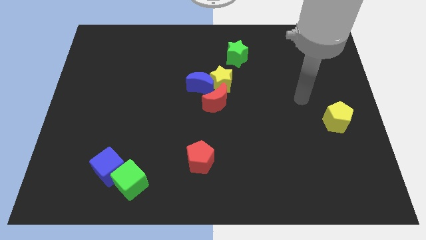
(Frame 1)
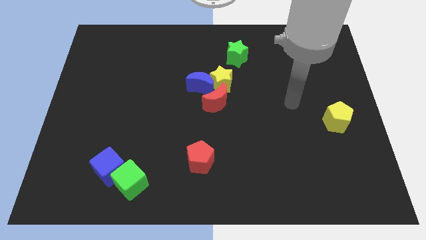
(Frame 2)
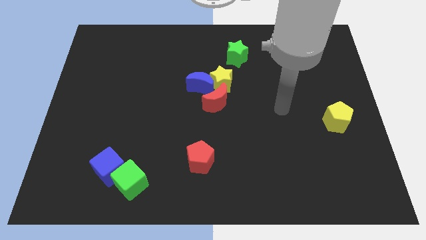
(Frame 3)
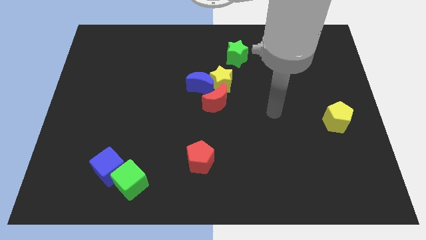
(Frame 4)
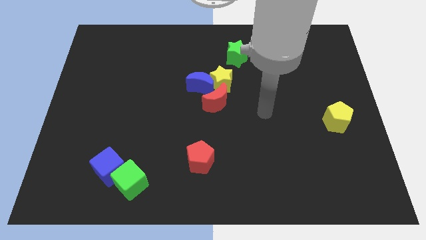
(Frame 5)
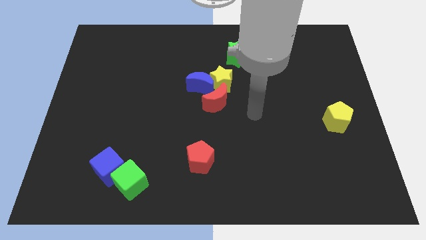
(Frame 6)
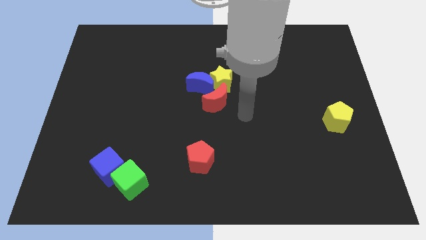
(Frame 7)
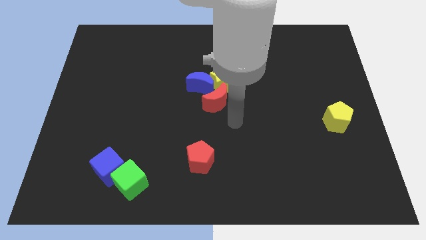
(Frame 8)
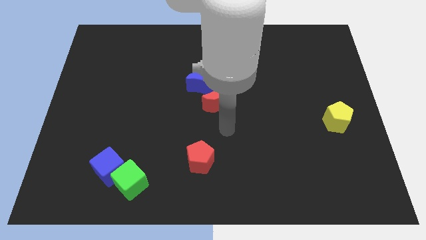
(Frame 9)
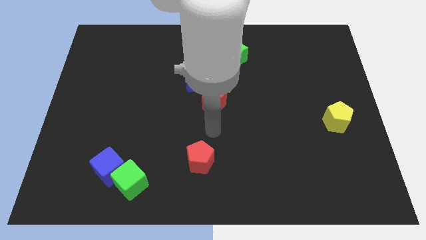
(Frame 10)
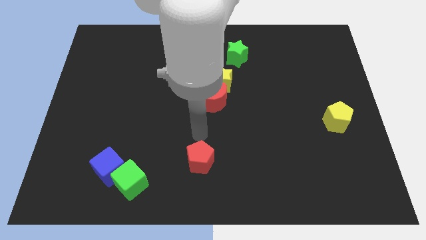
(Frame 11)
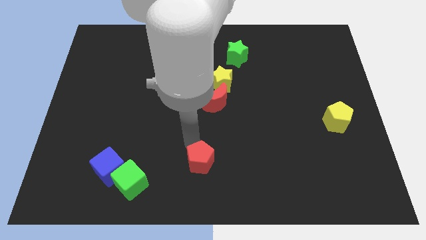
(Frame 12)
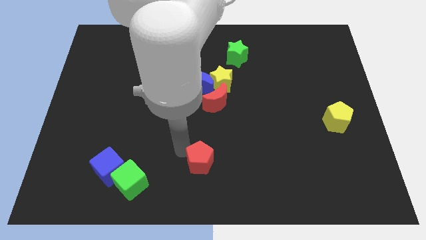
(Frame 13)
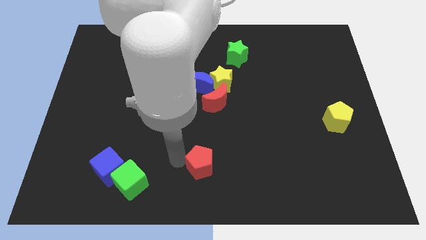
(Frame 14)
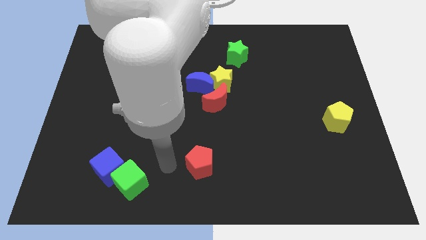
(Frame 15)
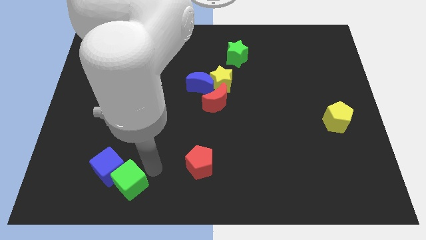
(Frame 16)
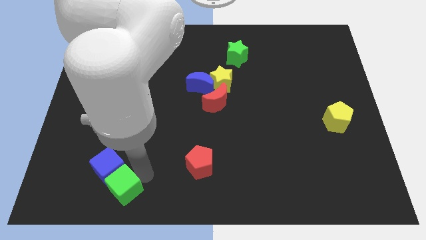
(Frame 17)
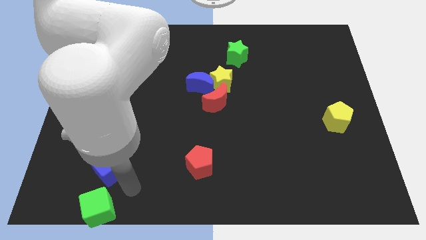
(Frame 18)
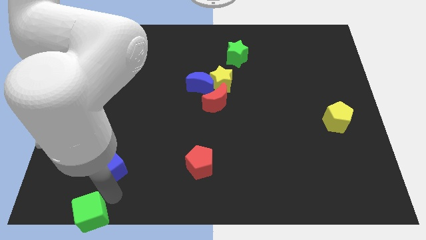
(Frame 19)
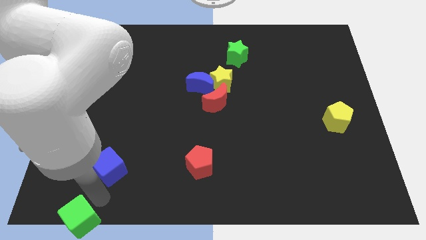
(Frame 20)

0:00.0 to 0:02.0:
pull the blue cube apart from the green cube

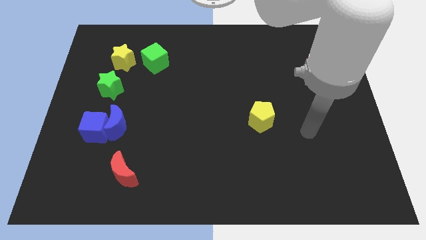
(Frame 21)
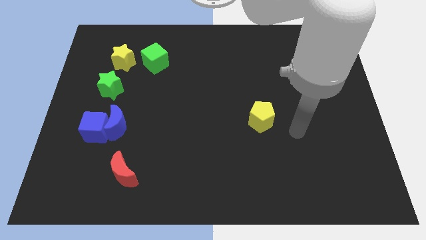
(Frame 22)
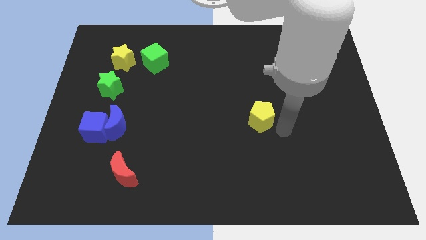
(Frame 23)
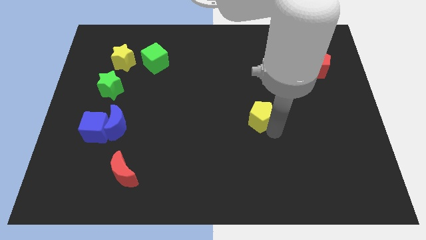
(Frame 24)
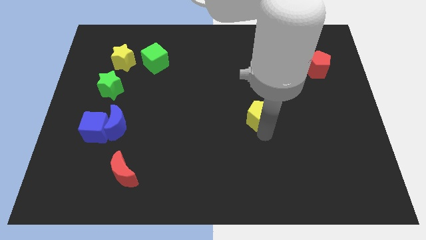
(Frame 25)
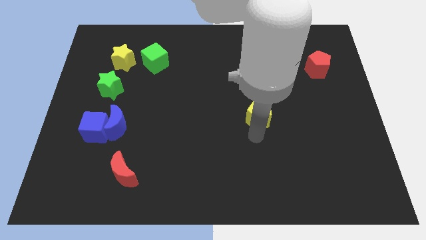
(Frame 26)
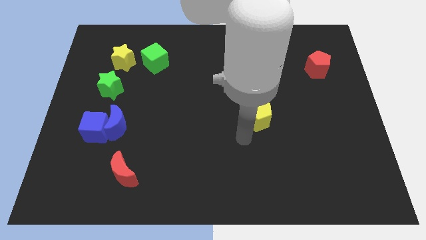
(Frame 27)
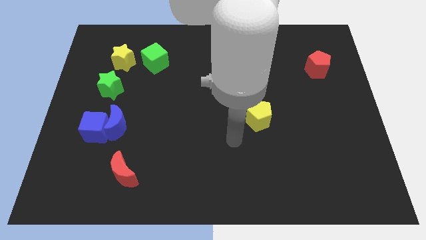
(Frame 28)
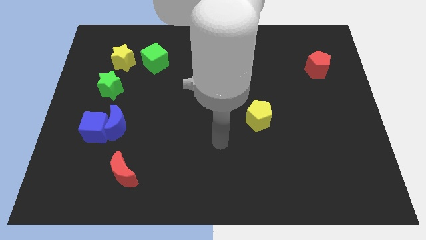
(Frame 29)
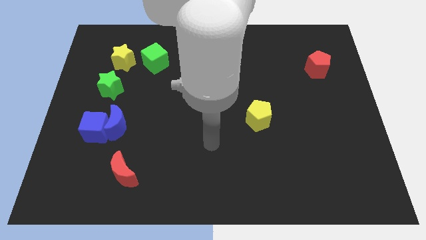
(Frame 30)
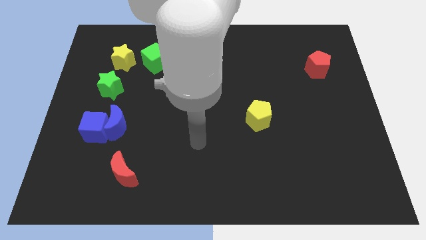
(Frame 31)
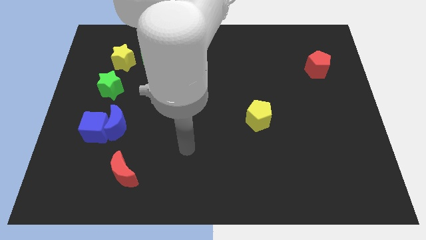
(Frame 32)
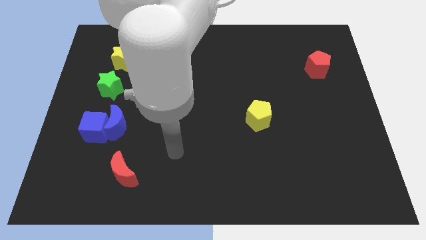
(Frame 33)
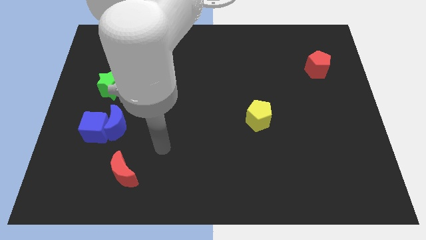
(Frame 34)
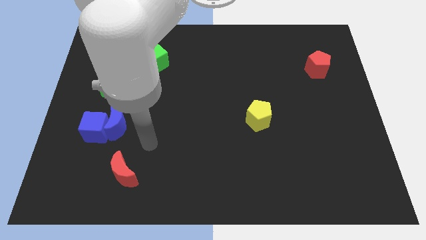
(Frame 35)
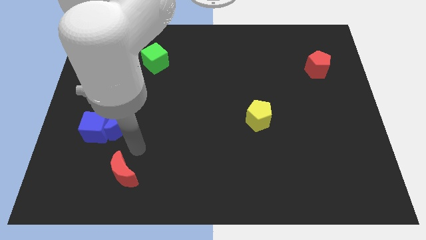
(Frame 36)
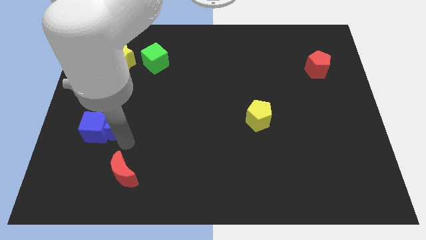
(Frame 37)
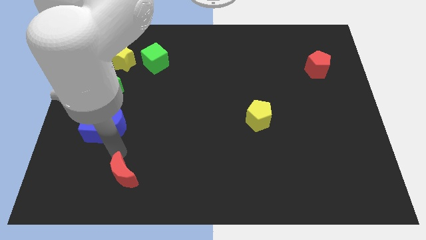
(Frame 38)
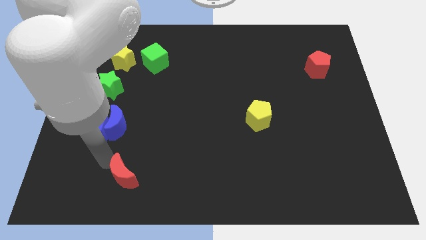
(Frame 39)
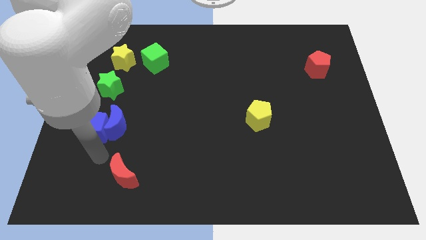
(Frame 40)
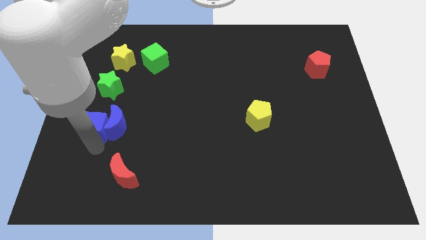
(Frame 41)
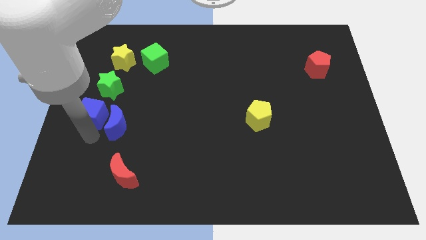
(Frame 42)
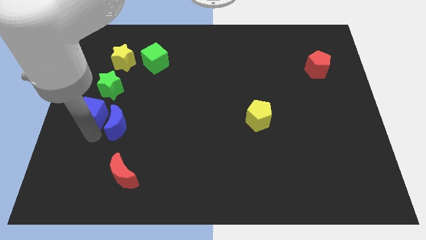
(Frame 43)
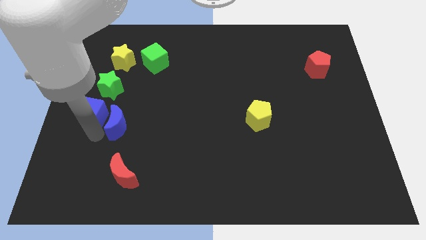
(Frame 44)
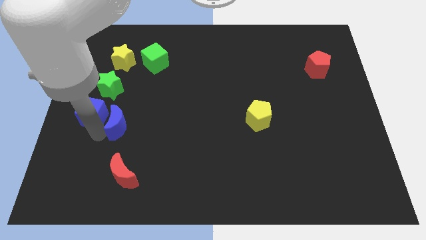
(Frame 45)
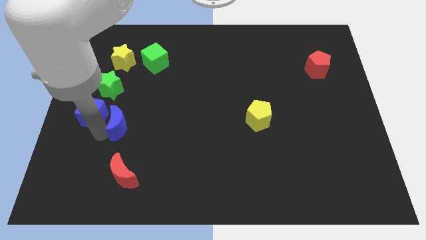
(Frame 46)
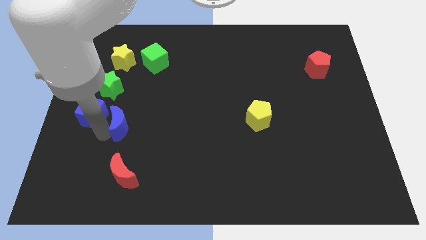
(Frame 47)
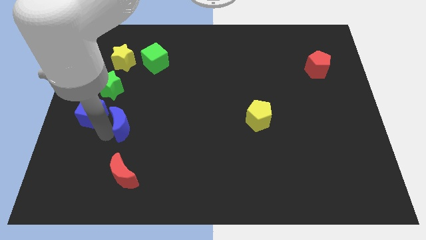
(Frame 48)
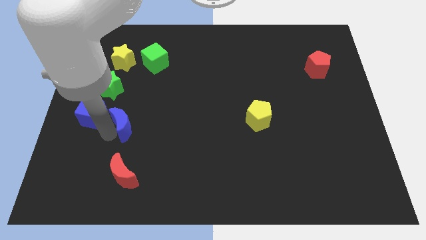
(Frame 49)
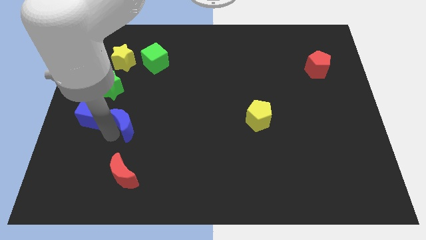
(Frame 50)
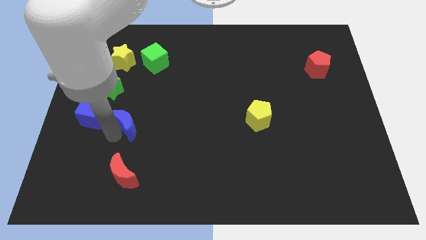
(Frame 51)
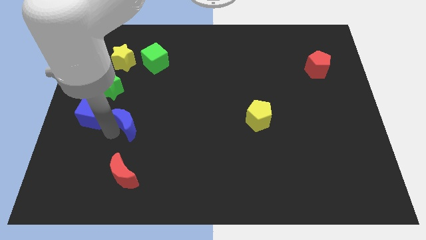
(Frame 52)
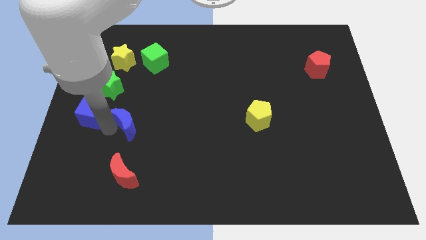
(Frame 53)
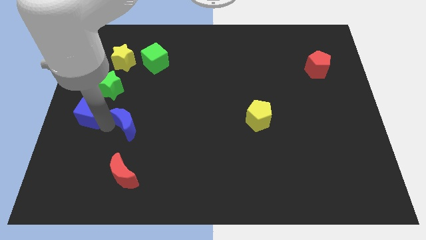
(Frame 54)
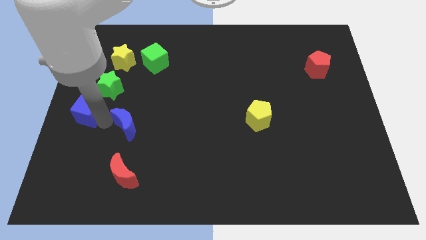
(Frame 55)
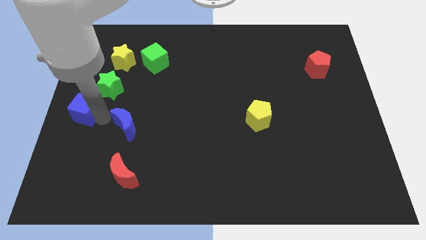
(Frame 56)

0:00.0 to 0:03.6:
pull the blue moon apart from the blue cube

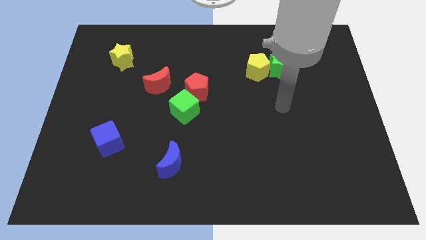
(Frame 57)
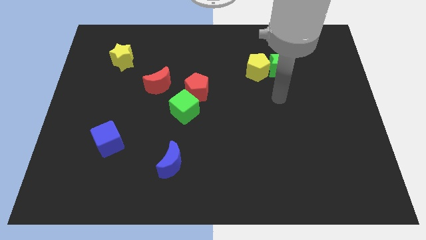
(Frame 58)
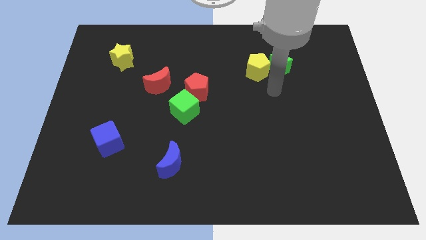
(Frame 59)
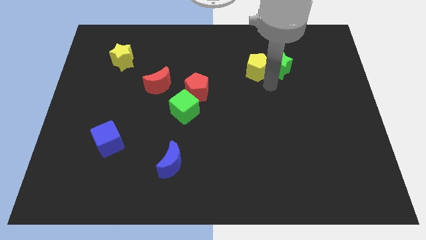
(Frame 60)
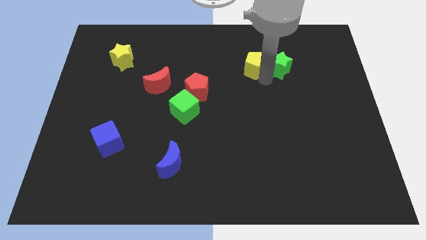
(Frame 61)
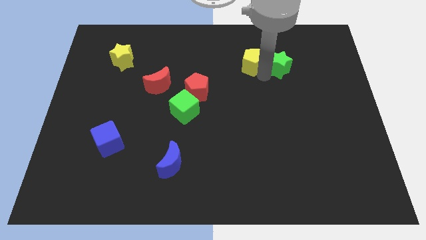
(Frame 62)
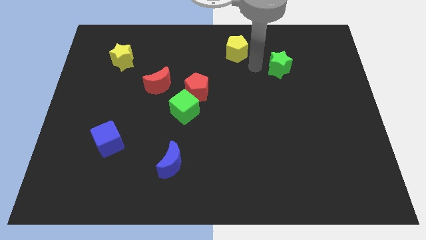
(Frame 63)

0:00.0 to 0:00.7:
pull the green star apart from the yellow pentagon

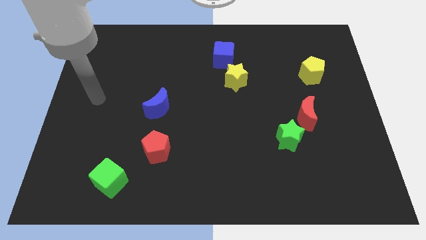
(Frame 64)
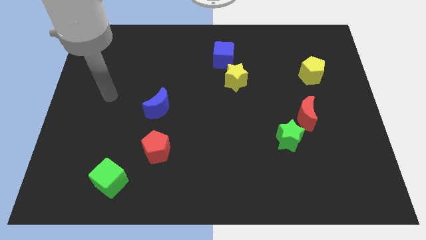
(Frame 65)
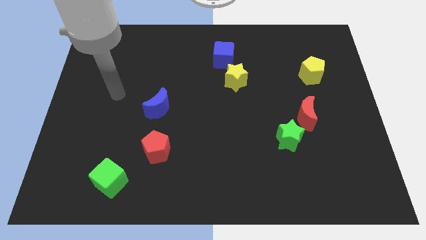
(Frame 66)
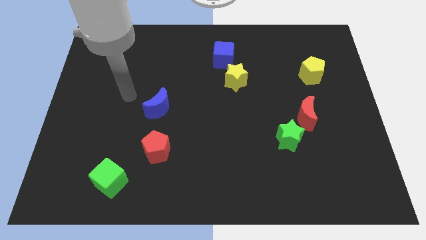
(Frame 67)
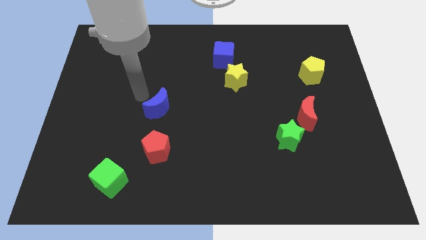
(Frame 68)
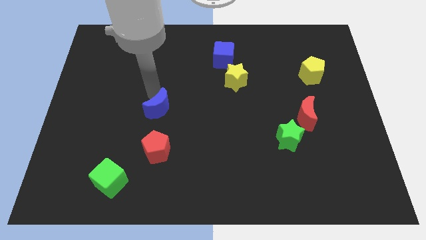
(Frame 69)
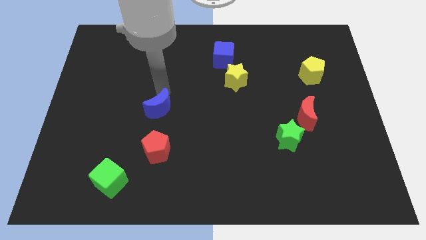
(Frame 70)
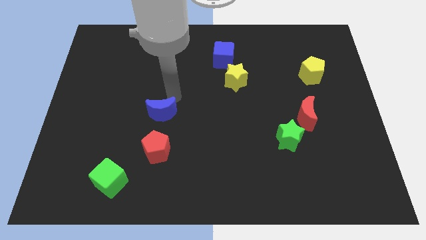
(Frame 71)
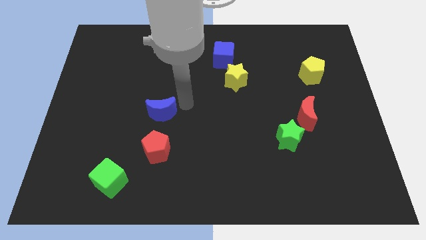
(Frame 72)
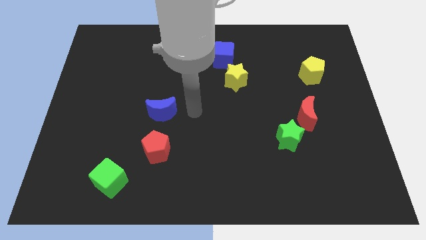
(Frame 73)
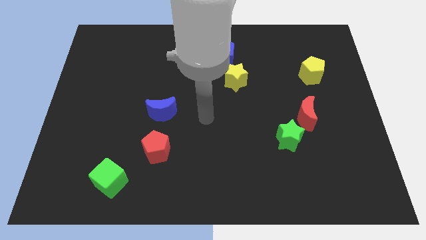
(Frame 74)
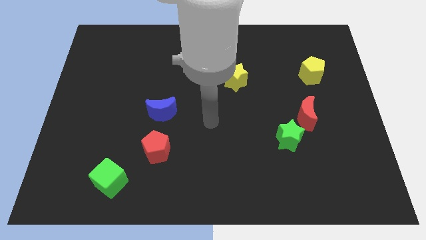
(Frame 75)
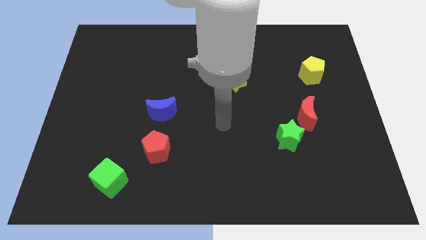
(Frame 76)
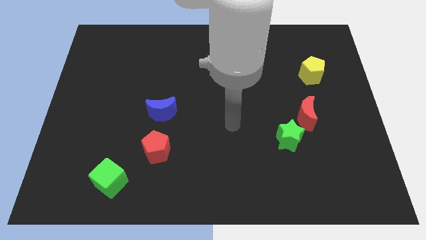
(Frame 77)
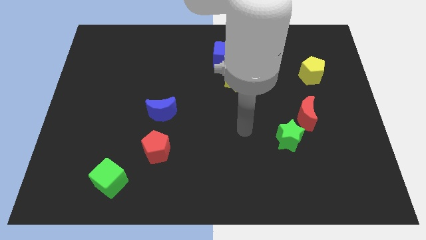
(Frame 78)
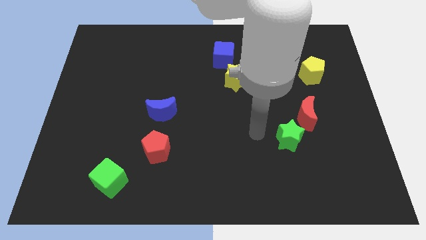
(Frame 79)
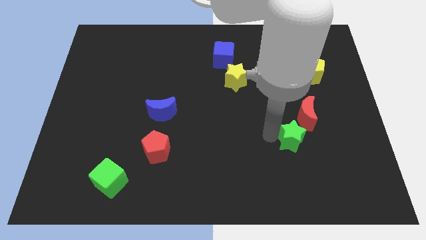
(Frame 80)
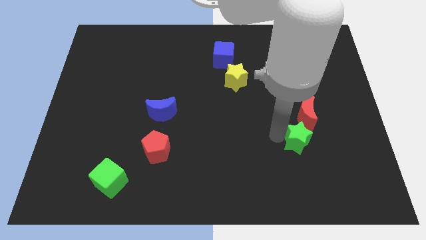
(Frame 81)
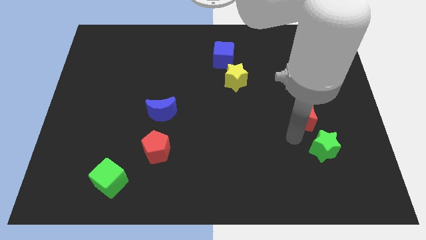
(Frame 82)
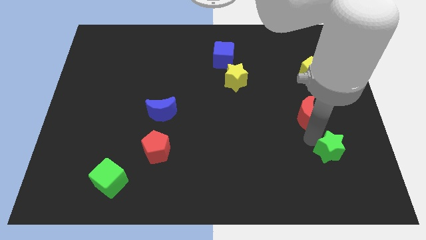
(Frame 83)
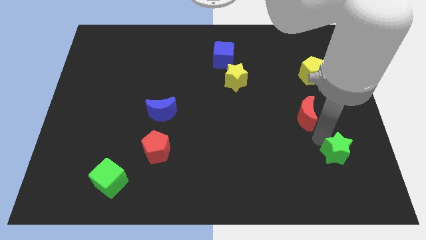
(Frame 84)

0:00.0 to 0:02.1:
pull the red moon apart from the green star

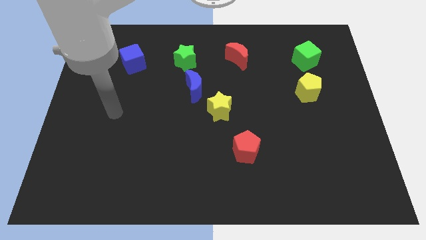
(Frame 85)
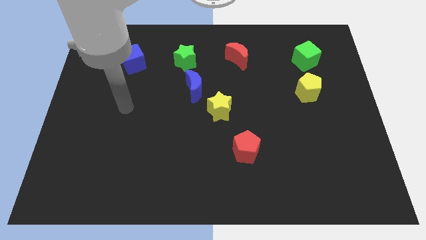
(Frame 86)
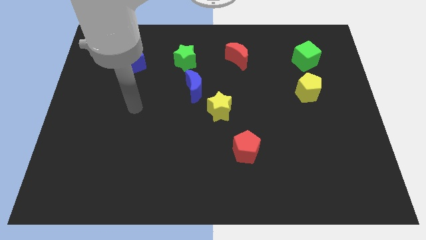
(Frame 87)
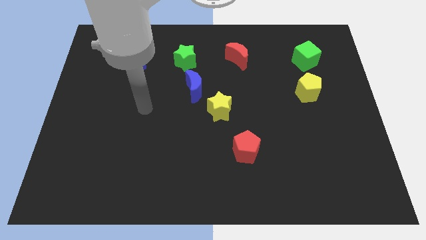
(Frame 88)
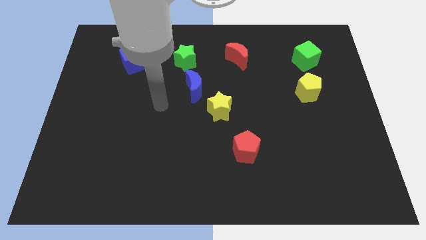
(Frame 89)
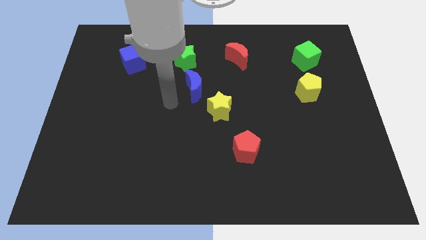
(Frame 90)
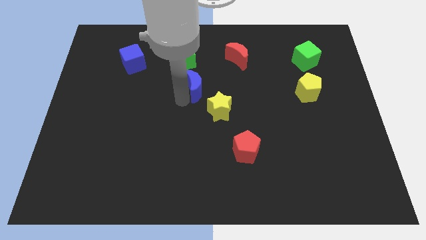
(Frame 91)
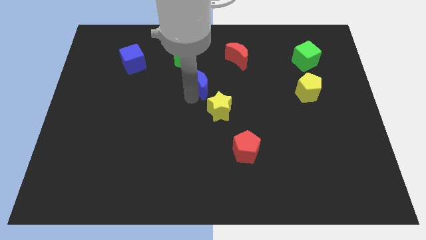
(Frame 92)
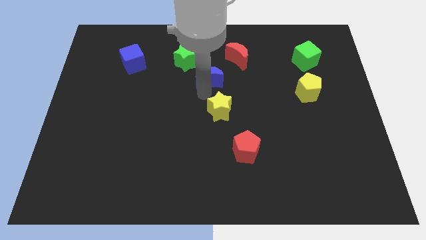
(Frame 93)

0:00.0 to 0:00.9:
separate the yellow star from the blue moon
